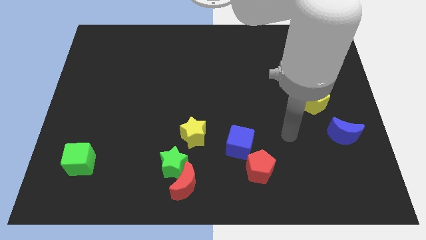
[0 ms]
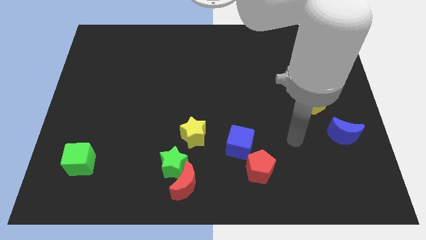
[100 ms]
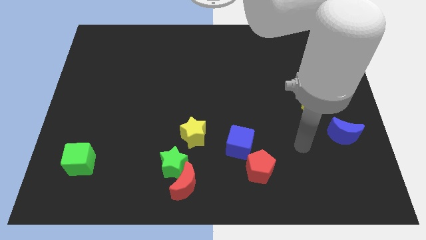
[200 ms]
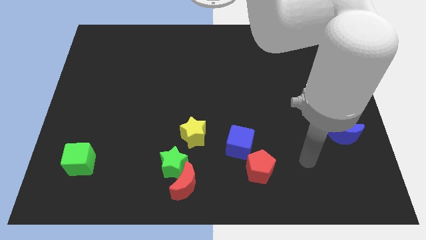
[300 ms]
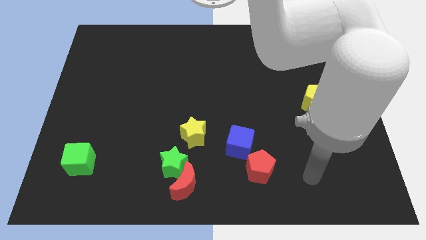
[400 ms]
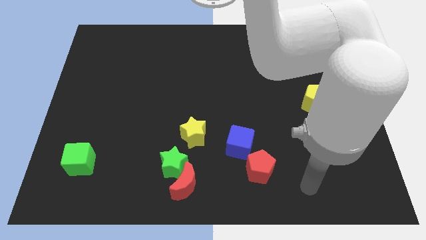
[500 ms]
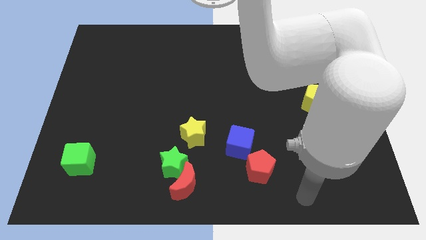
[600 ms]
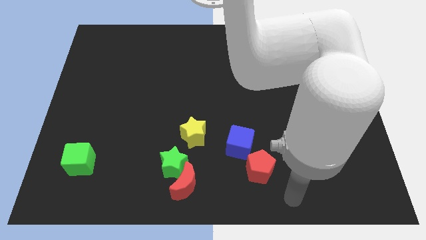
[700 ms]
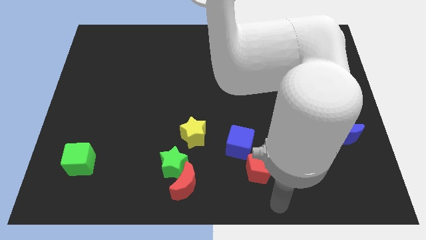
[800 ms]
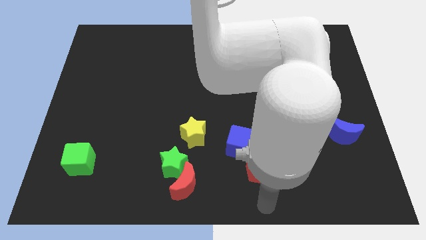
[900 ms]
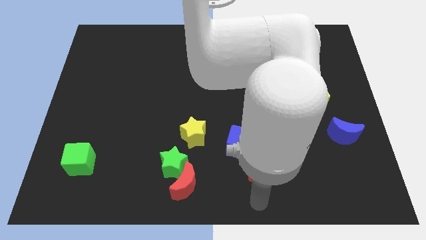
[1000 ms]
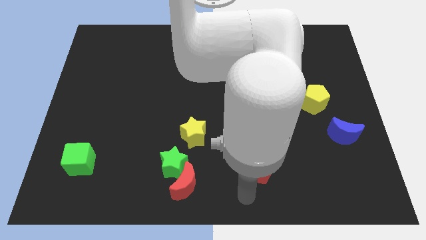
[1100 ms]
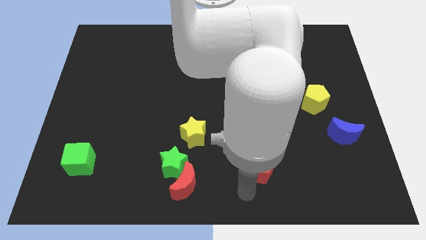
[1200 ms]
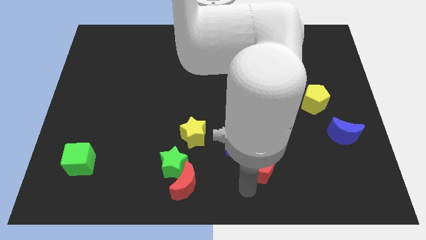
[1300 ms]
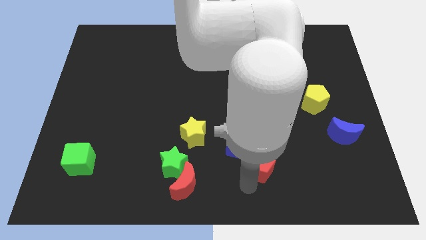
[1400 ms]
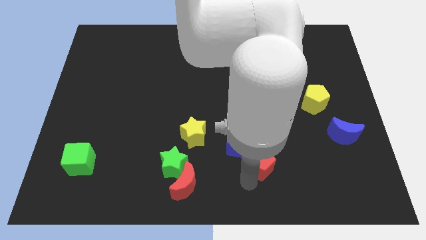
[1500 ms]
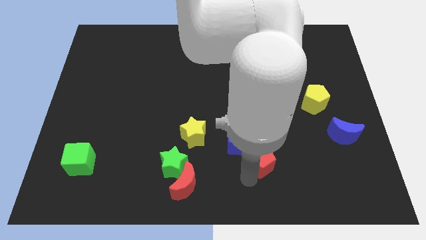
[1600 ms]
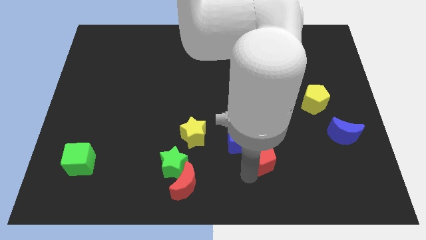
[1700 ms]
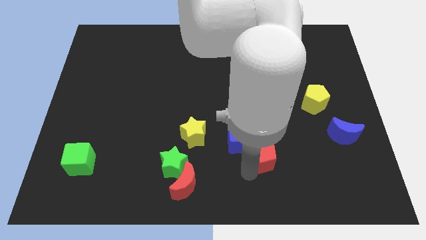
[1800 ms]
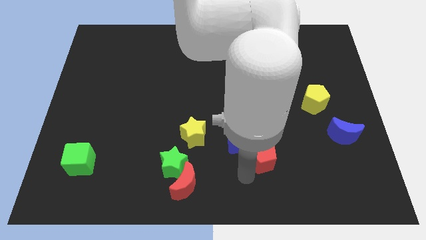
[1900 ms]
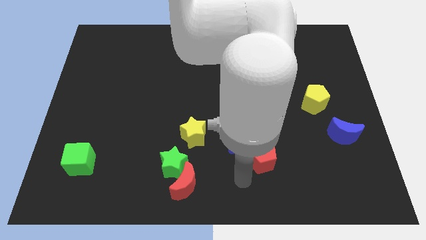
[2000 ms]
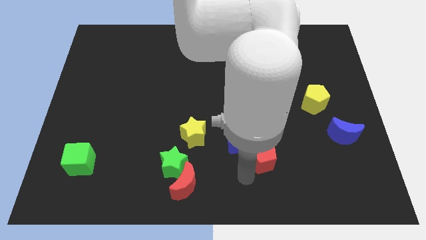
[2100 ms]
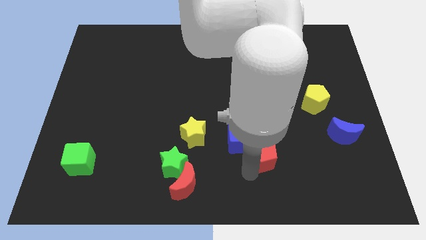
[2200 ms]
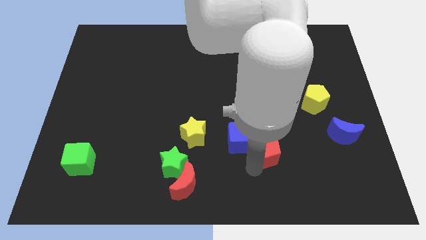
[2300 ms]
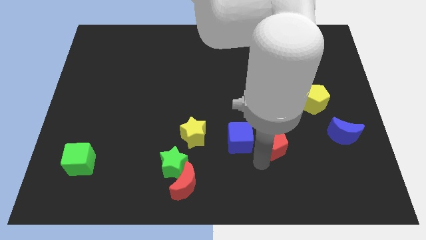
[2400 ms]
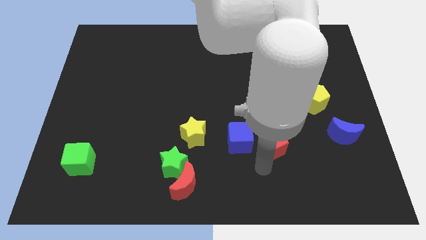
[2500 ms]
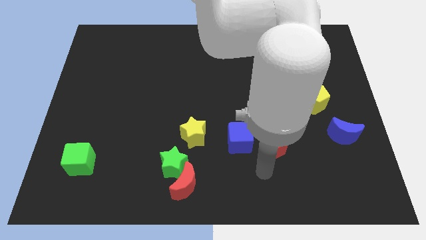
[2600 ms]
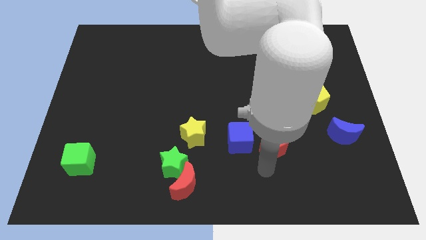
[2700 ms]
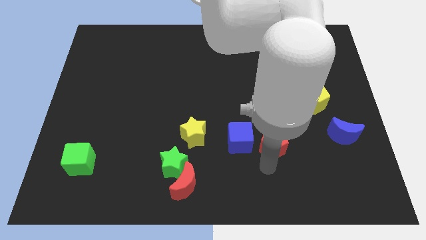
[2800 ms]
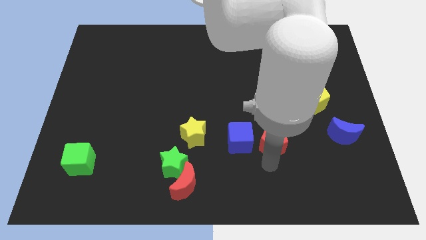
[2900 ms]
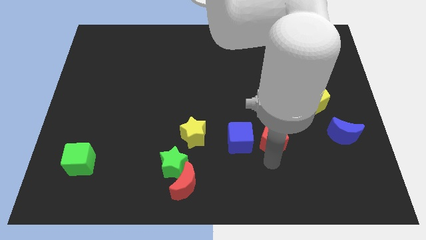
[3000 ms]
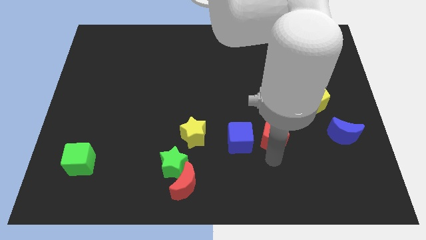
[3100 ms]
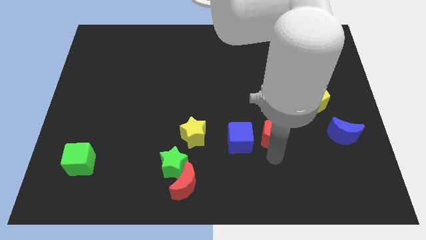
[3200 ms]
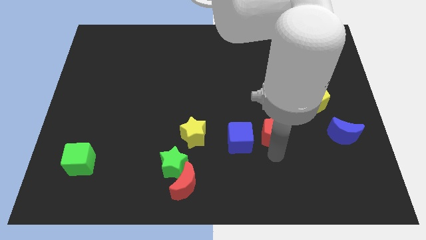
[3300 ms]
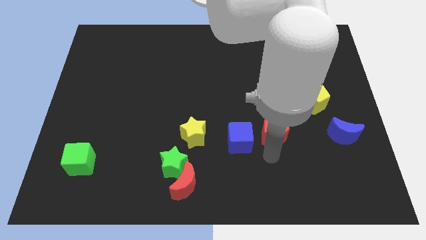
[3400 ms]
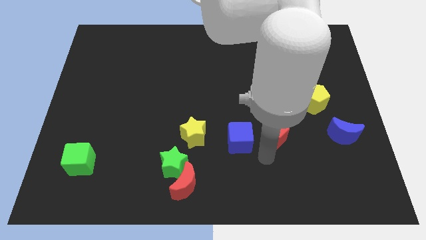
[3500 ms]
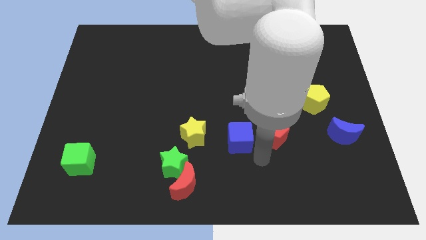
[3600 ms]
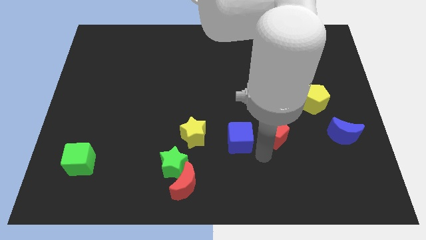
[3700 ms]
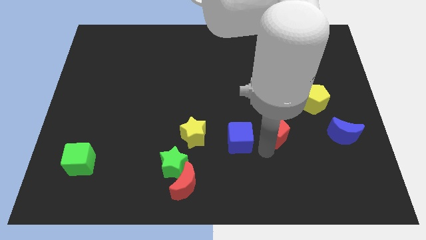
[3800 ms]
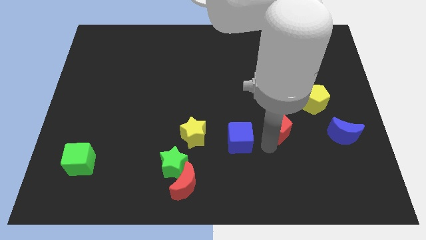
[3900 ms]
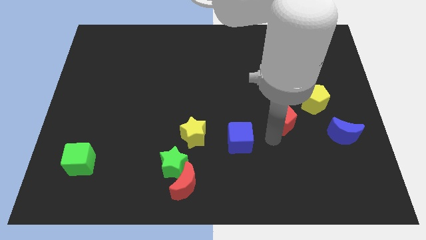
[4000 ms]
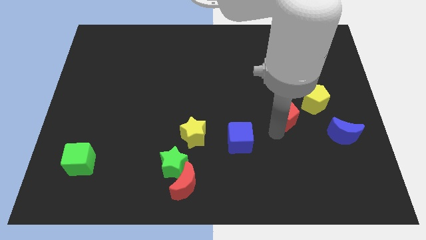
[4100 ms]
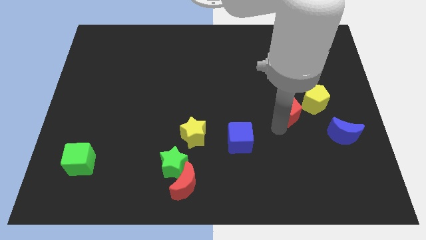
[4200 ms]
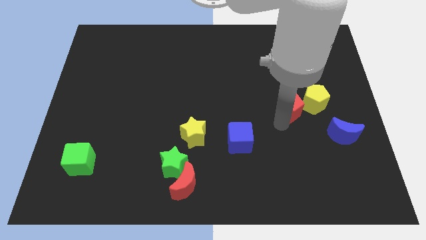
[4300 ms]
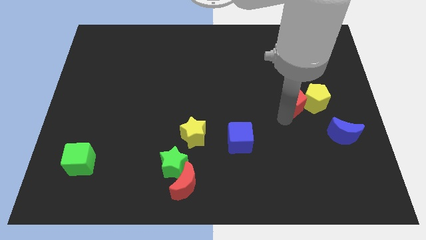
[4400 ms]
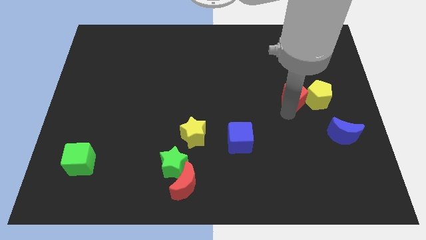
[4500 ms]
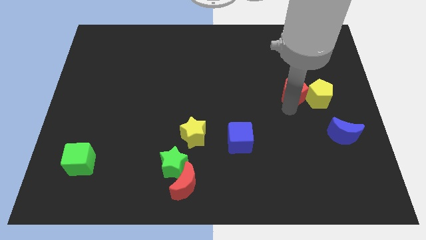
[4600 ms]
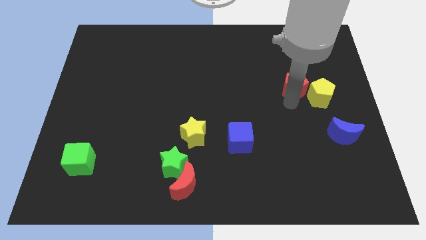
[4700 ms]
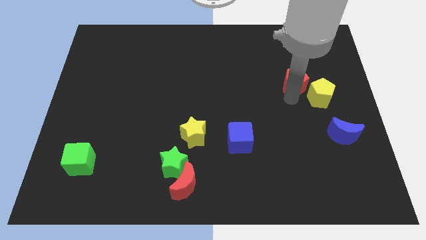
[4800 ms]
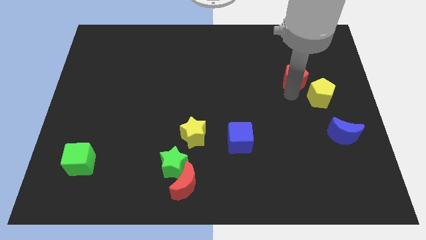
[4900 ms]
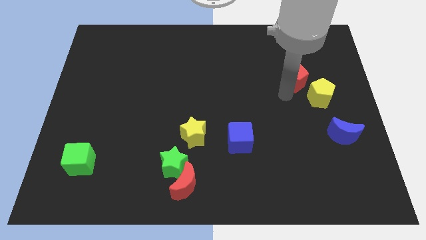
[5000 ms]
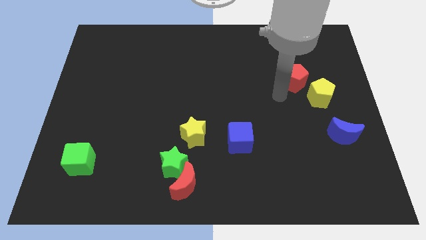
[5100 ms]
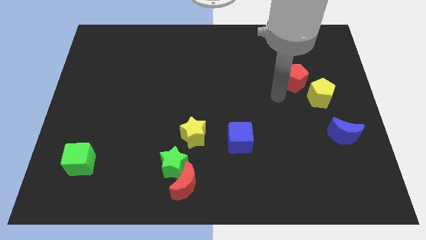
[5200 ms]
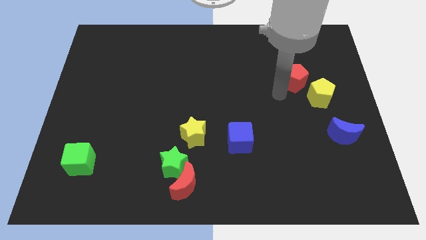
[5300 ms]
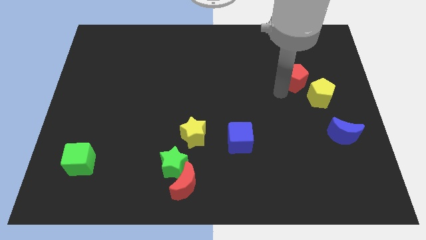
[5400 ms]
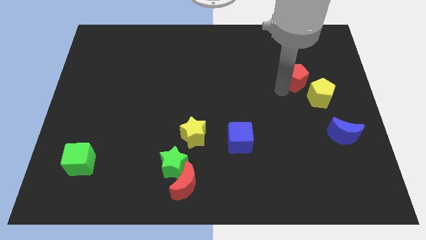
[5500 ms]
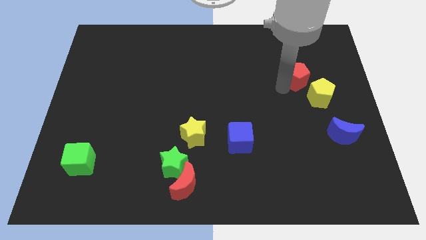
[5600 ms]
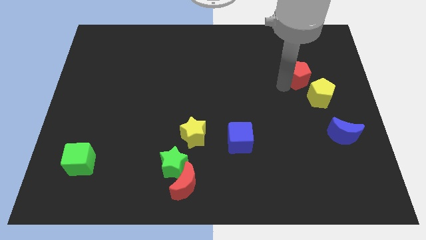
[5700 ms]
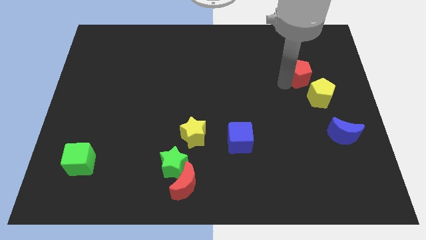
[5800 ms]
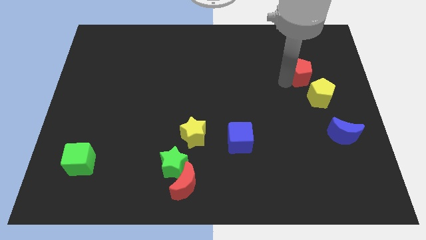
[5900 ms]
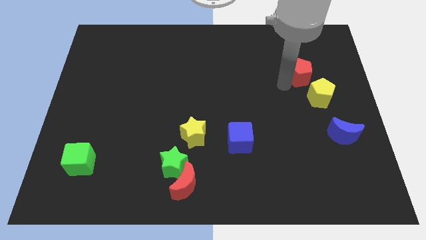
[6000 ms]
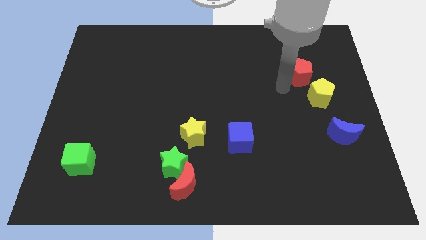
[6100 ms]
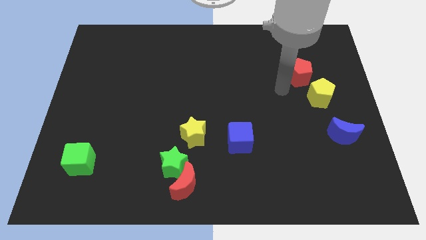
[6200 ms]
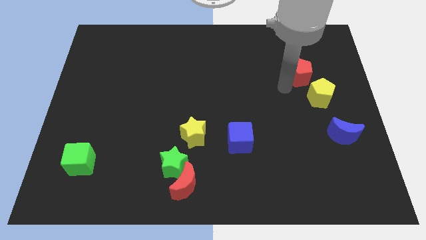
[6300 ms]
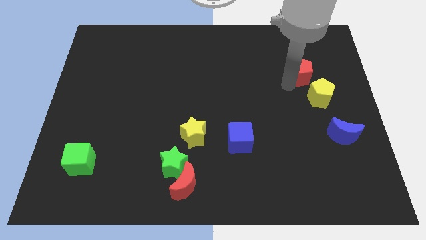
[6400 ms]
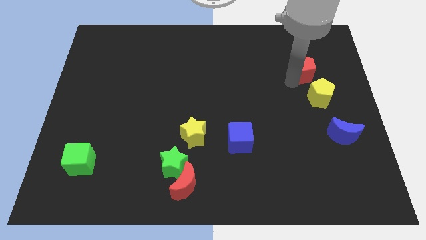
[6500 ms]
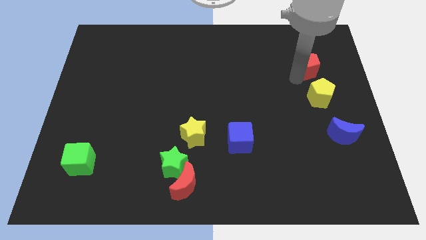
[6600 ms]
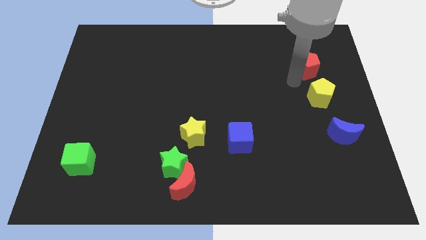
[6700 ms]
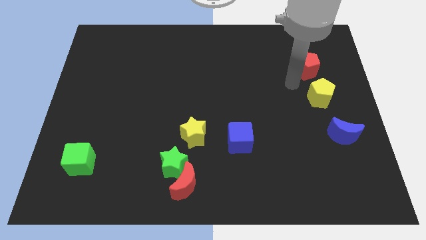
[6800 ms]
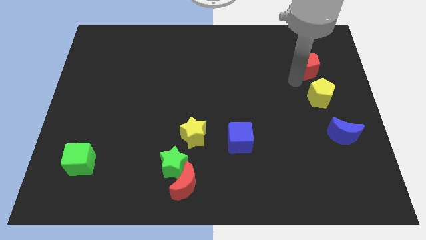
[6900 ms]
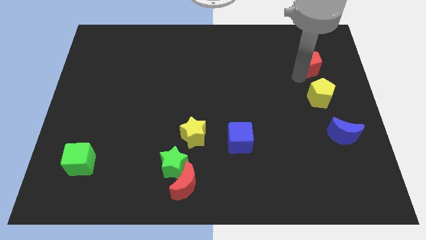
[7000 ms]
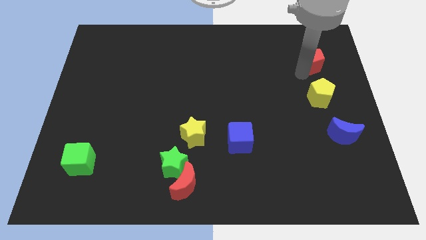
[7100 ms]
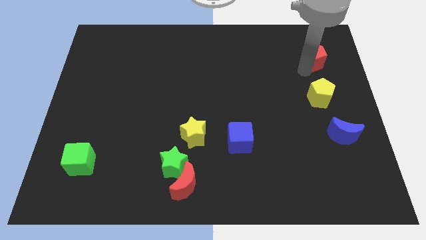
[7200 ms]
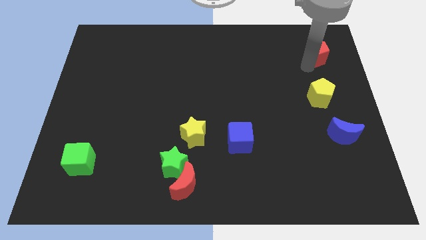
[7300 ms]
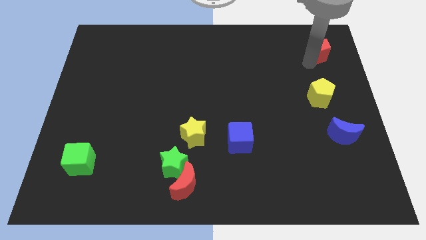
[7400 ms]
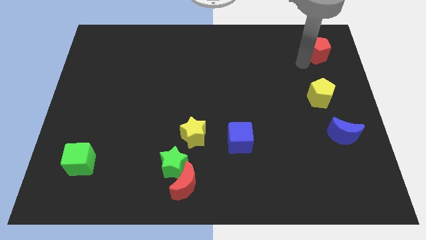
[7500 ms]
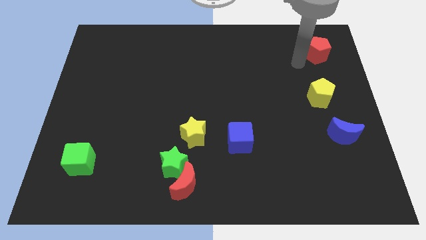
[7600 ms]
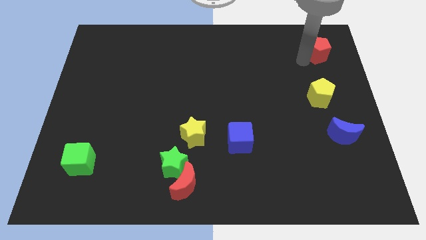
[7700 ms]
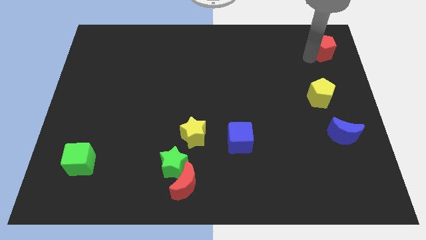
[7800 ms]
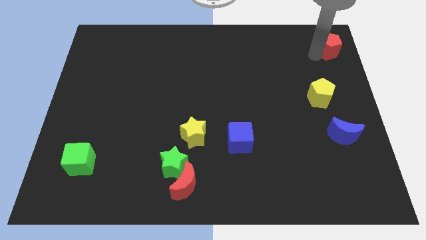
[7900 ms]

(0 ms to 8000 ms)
move the red pentagon to the upper right corner
